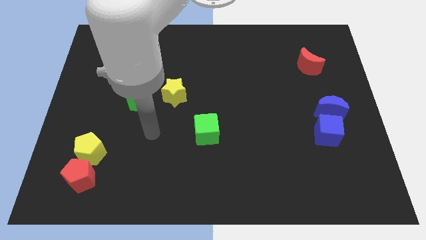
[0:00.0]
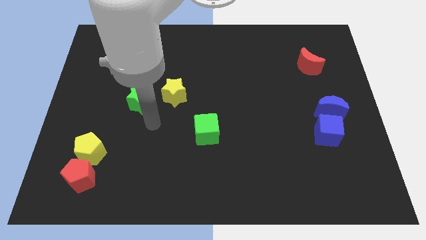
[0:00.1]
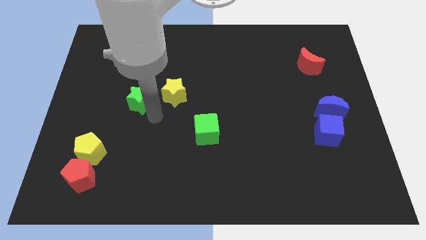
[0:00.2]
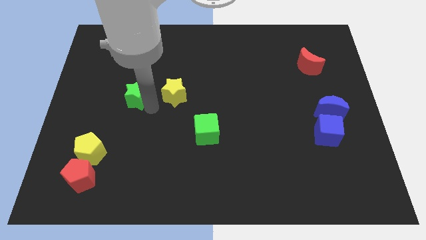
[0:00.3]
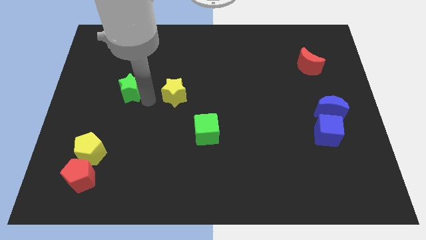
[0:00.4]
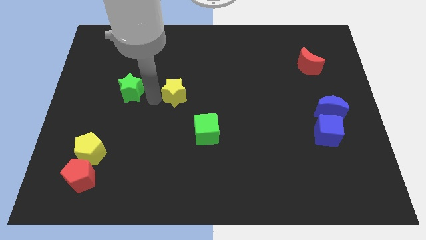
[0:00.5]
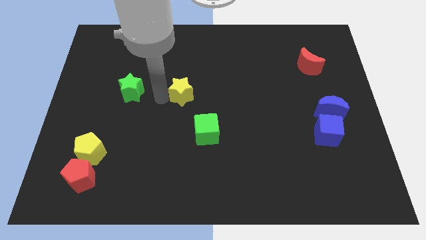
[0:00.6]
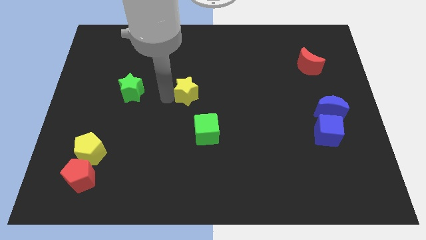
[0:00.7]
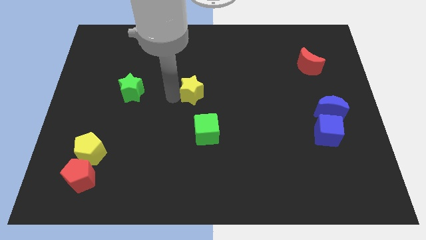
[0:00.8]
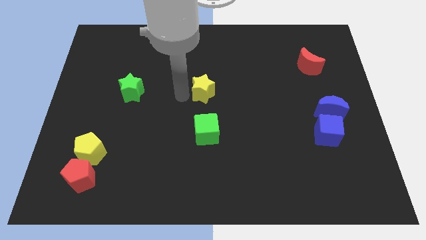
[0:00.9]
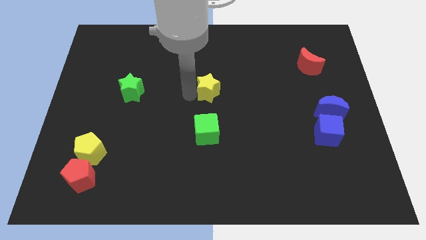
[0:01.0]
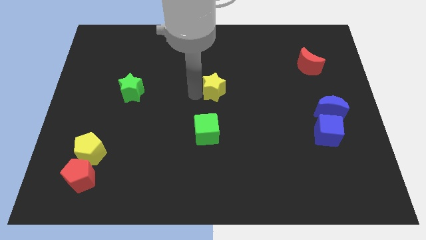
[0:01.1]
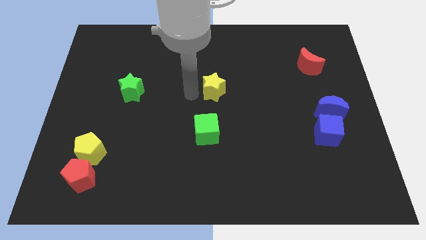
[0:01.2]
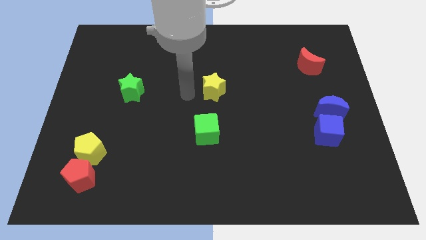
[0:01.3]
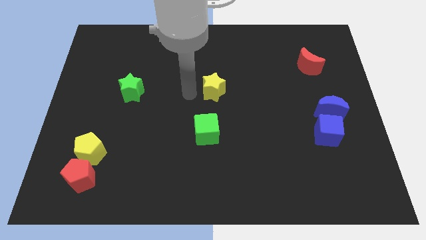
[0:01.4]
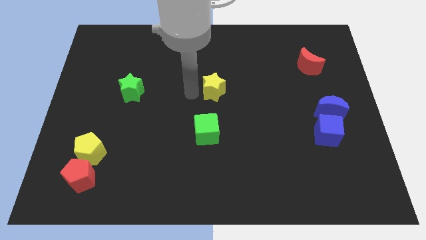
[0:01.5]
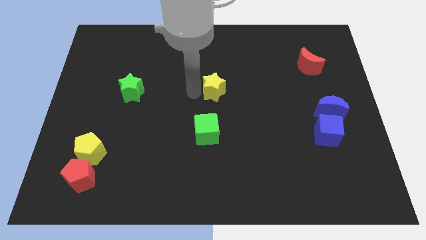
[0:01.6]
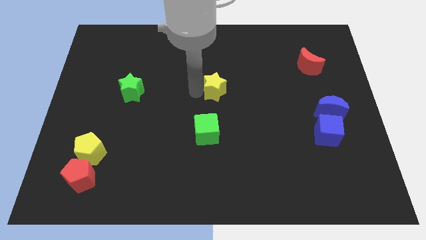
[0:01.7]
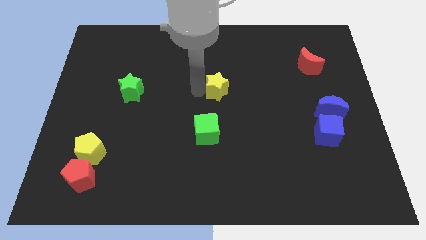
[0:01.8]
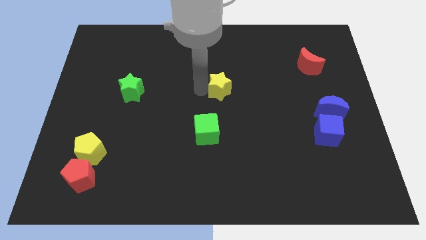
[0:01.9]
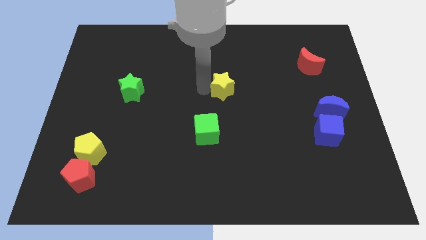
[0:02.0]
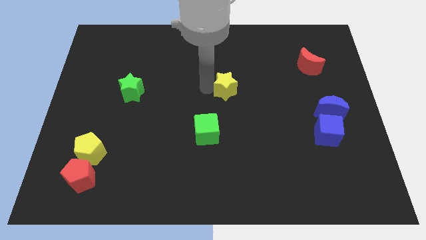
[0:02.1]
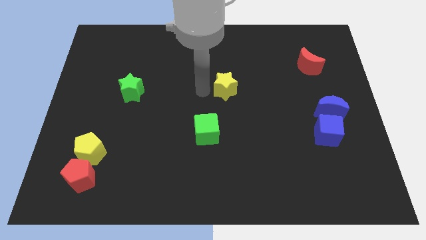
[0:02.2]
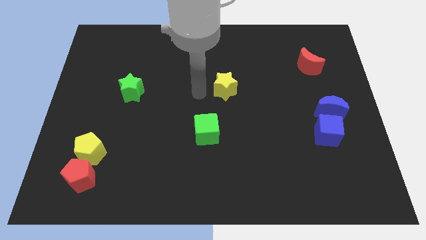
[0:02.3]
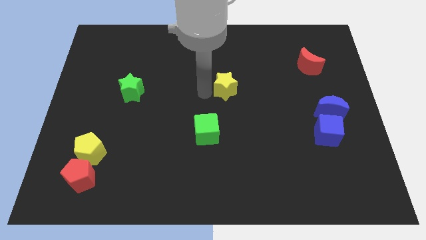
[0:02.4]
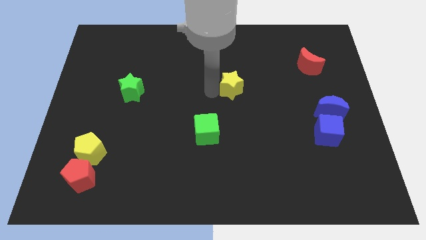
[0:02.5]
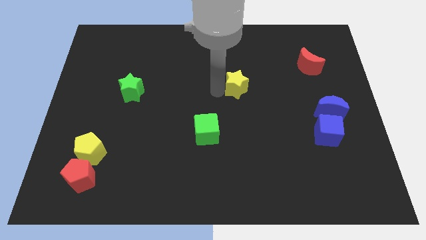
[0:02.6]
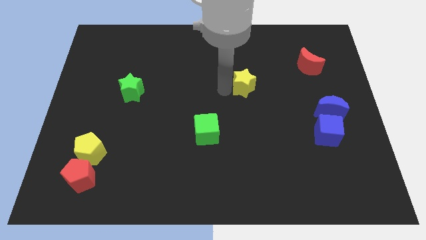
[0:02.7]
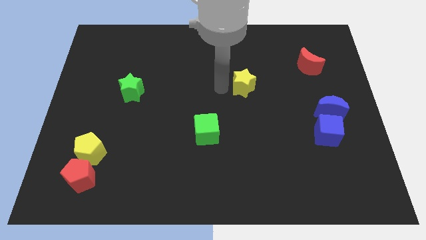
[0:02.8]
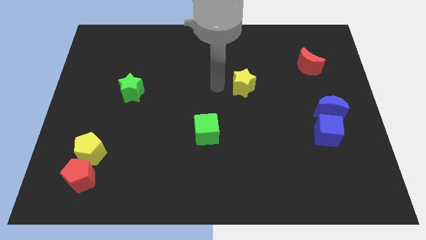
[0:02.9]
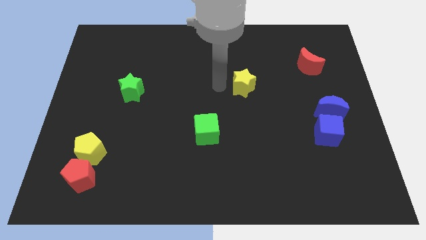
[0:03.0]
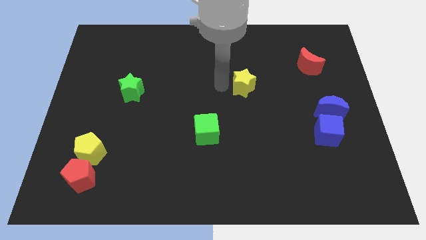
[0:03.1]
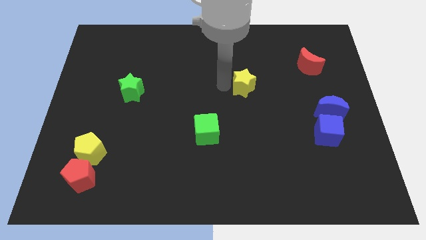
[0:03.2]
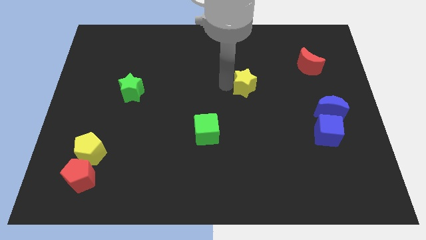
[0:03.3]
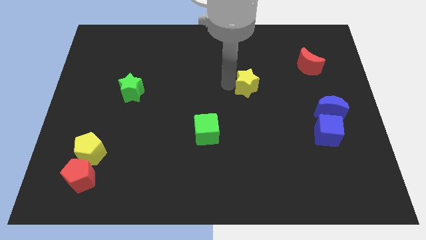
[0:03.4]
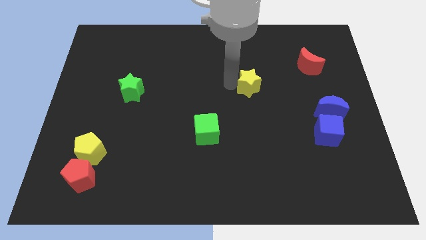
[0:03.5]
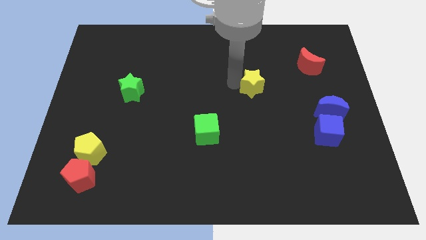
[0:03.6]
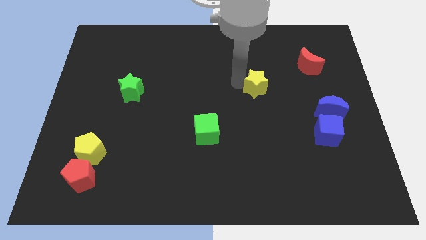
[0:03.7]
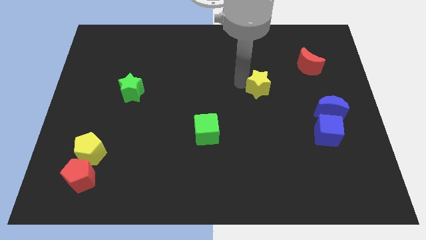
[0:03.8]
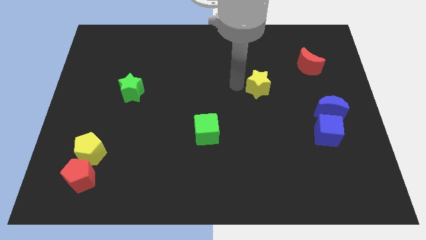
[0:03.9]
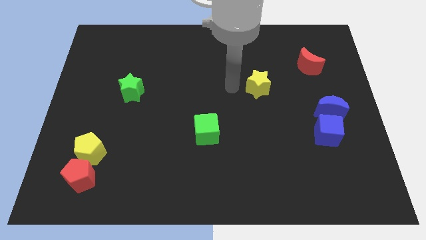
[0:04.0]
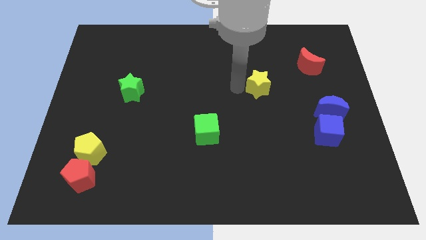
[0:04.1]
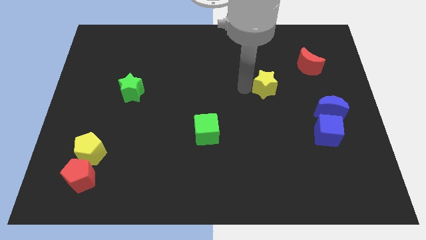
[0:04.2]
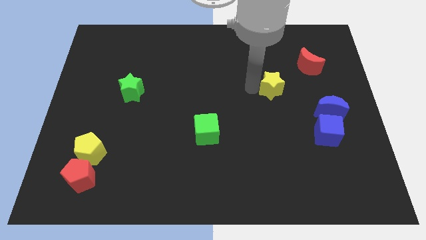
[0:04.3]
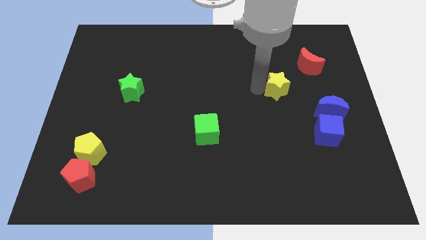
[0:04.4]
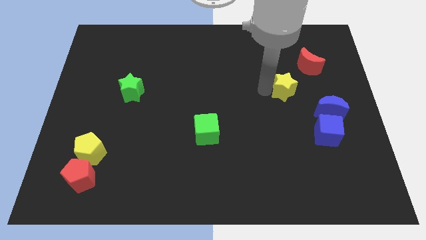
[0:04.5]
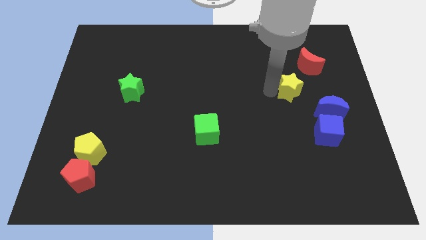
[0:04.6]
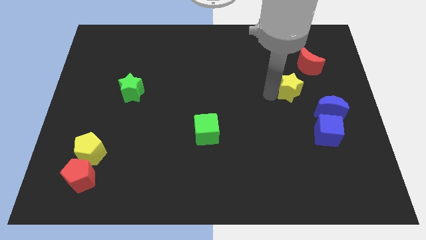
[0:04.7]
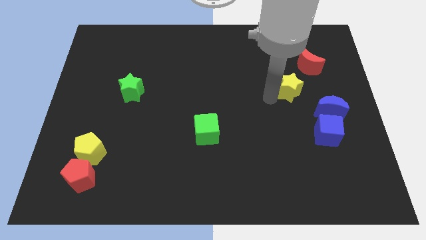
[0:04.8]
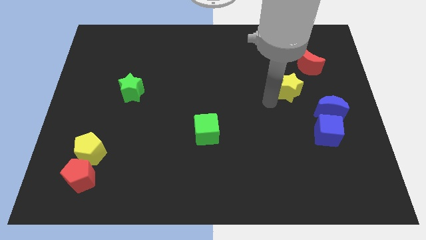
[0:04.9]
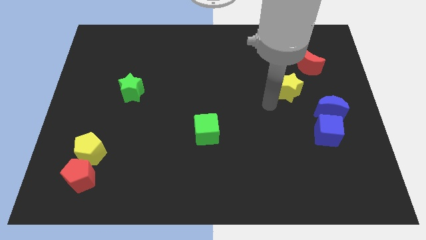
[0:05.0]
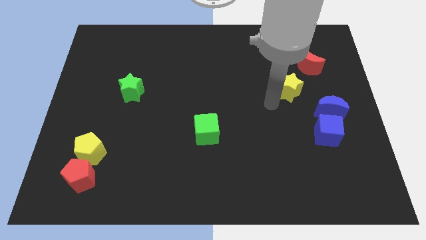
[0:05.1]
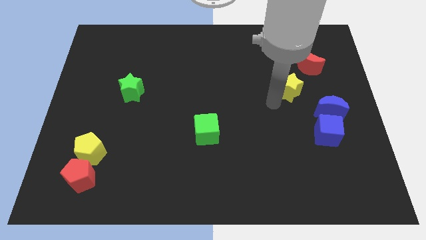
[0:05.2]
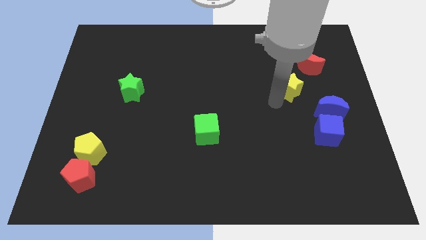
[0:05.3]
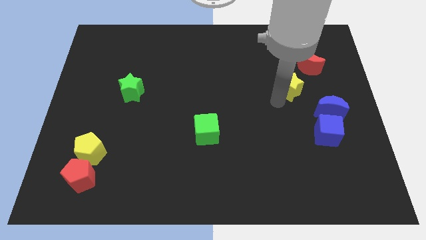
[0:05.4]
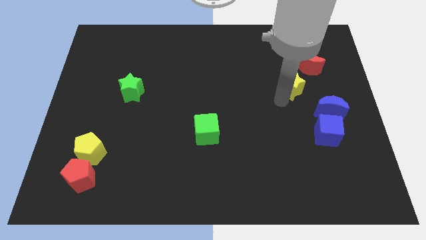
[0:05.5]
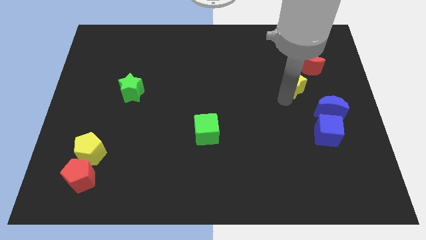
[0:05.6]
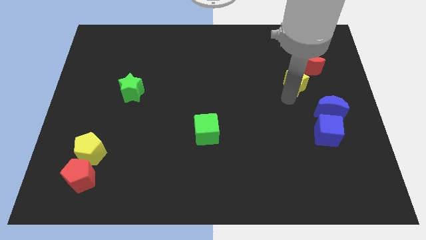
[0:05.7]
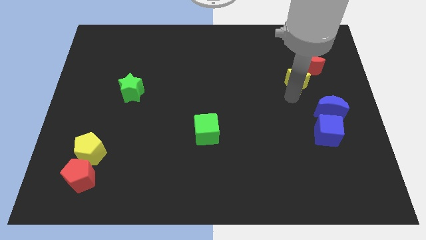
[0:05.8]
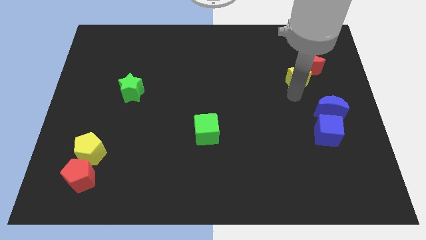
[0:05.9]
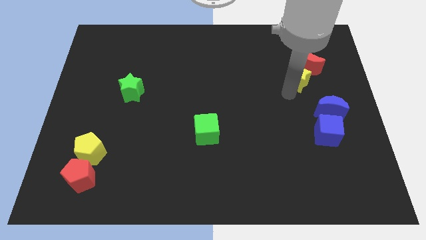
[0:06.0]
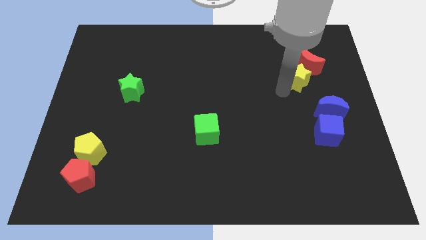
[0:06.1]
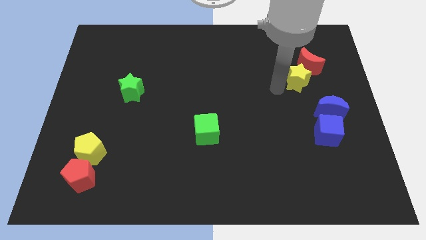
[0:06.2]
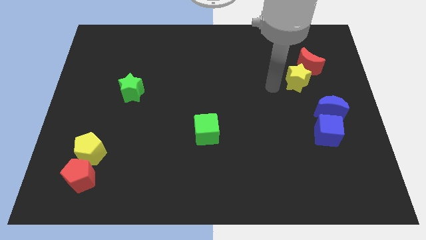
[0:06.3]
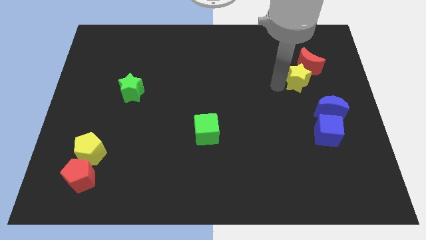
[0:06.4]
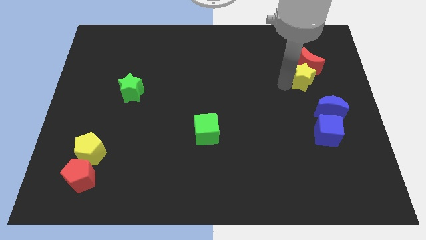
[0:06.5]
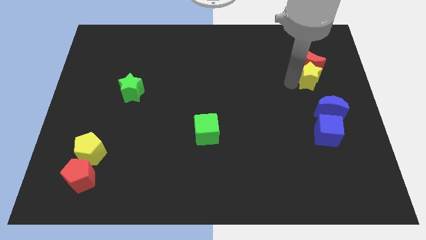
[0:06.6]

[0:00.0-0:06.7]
push the yellow star to the top of the blue moon
